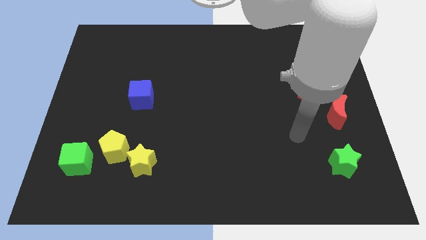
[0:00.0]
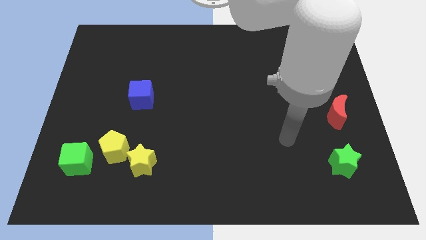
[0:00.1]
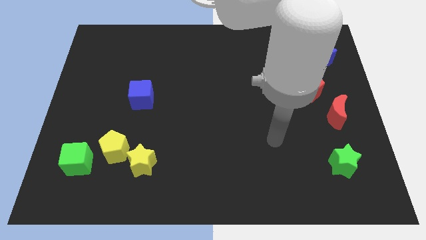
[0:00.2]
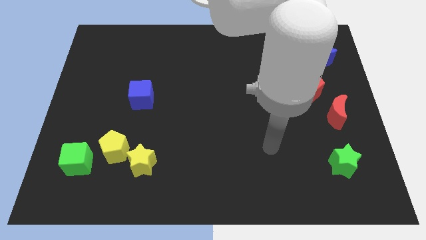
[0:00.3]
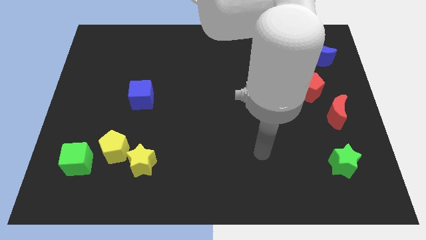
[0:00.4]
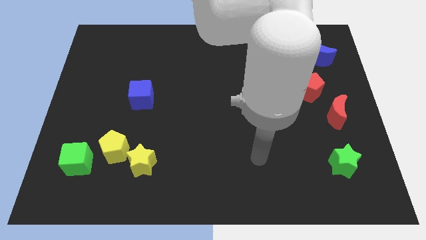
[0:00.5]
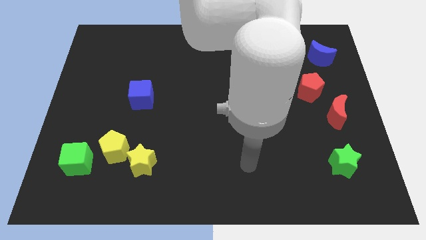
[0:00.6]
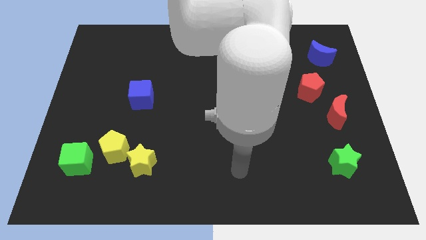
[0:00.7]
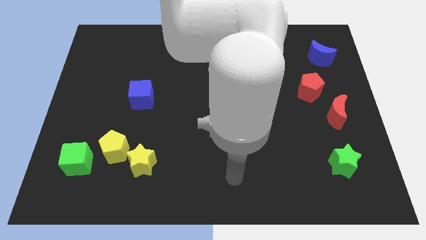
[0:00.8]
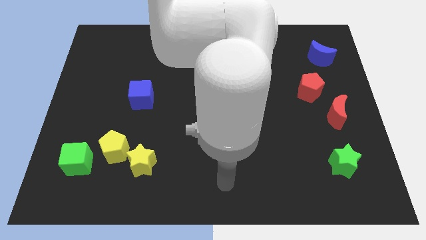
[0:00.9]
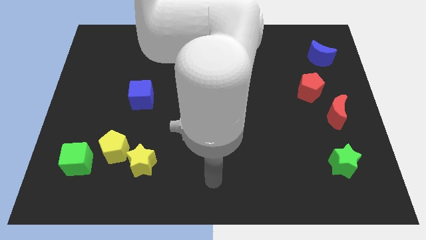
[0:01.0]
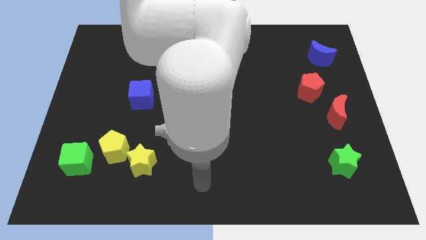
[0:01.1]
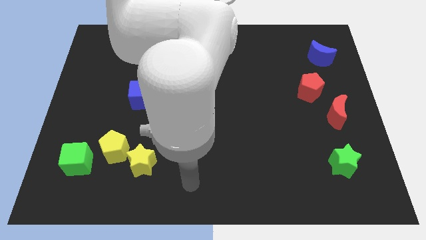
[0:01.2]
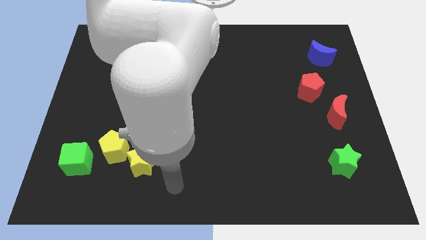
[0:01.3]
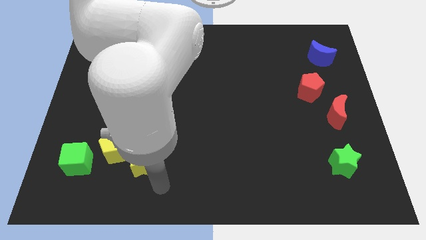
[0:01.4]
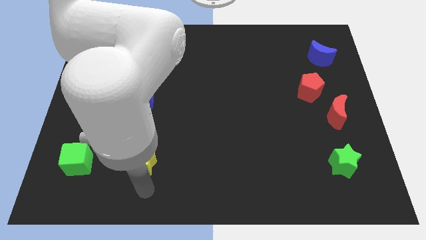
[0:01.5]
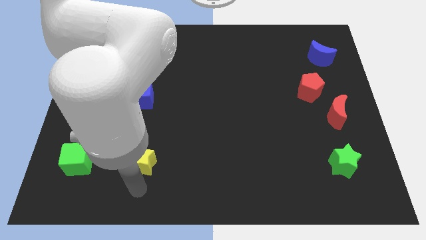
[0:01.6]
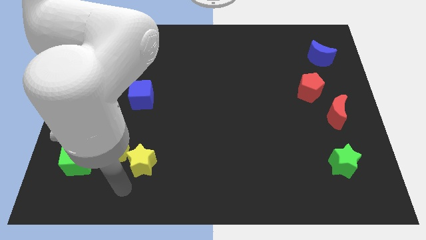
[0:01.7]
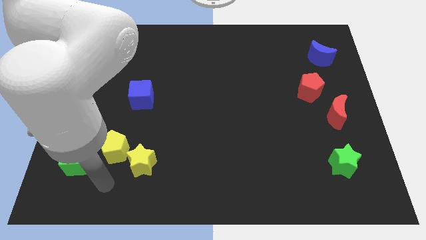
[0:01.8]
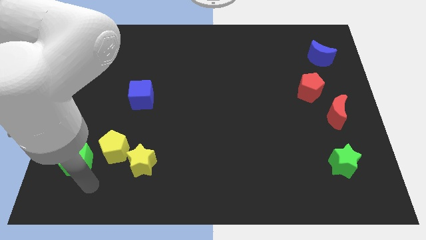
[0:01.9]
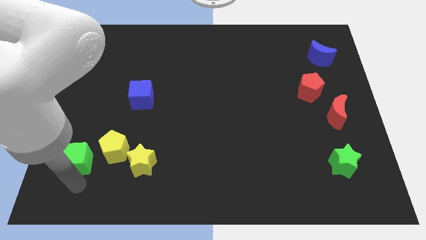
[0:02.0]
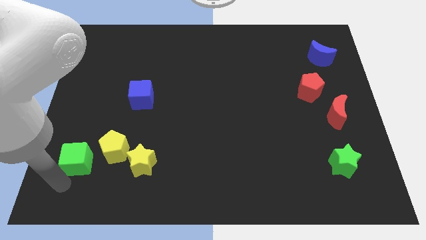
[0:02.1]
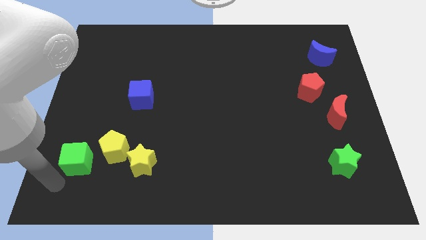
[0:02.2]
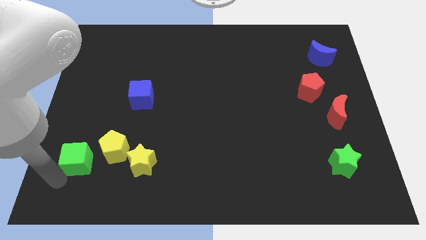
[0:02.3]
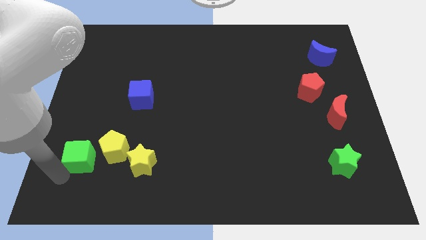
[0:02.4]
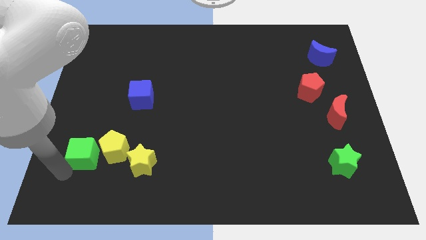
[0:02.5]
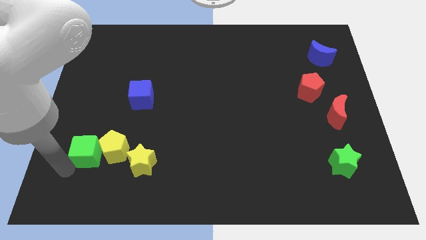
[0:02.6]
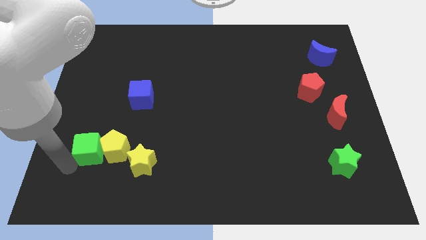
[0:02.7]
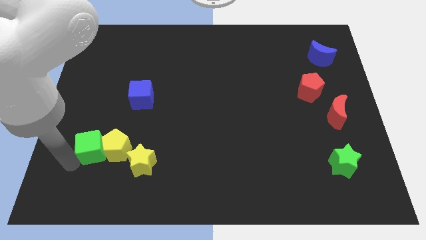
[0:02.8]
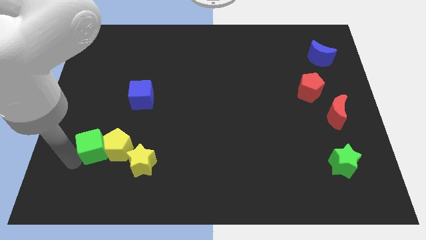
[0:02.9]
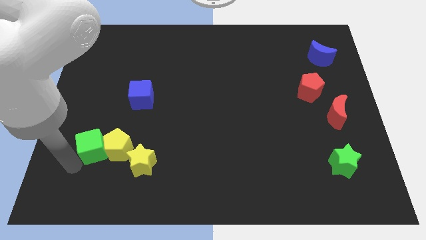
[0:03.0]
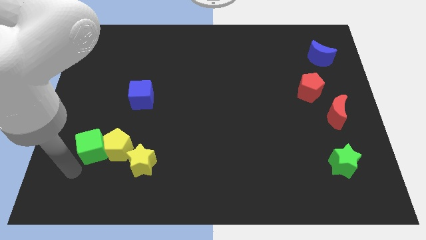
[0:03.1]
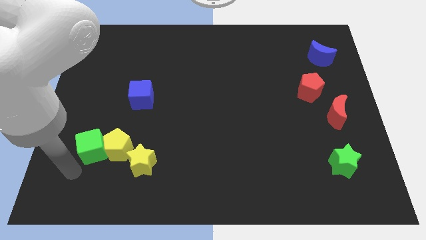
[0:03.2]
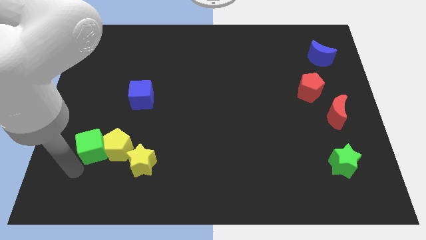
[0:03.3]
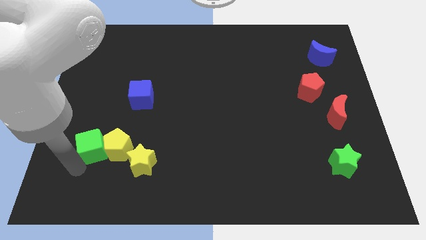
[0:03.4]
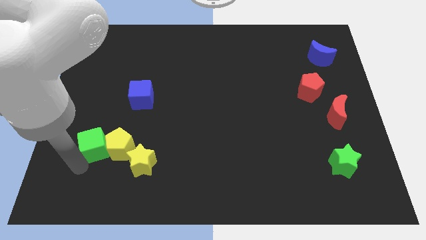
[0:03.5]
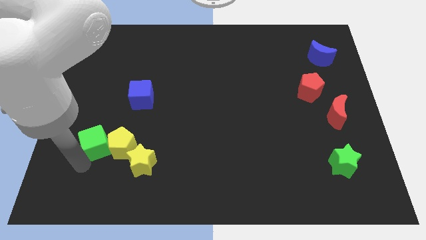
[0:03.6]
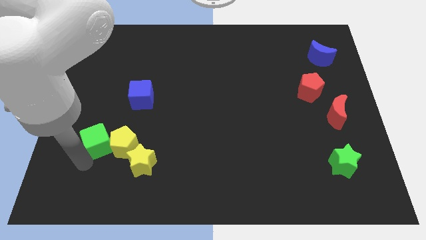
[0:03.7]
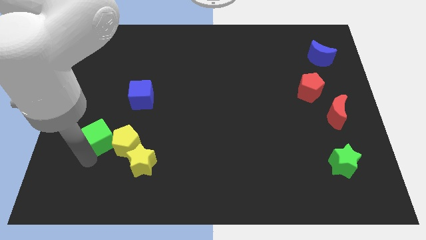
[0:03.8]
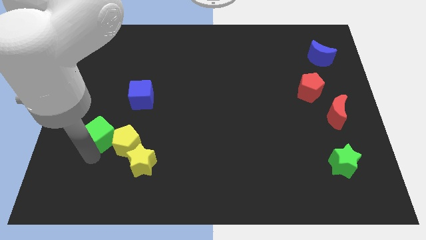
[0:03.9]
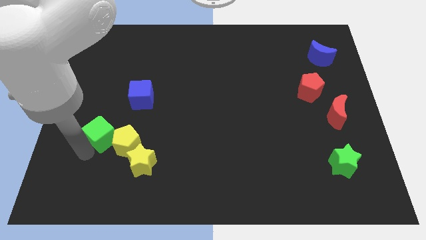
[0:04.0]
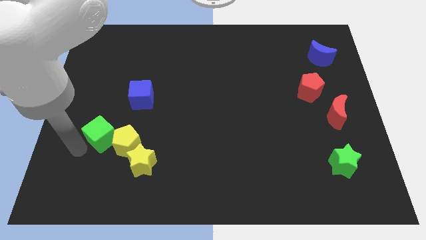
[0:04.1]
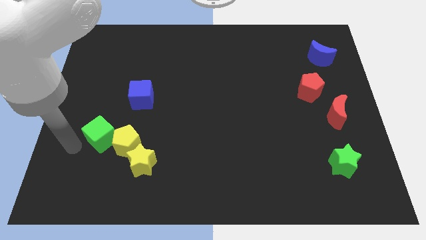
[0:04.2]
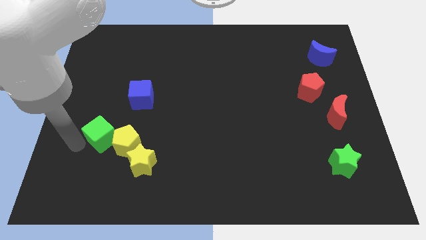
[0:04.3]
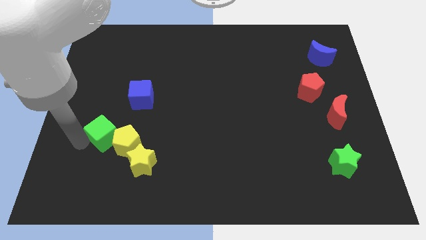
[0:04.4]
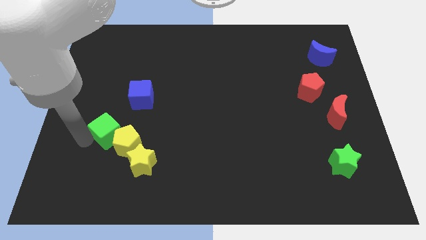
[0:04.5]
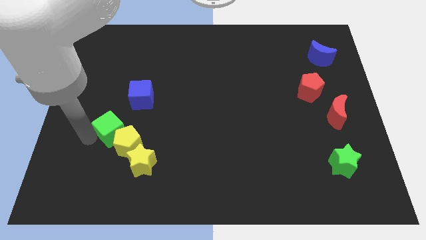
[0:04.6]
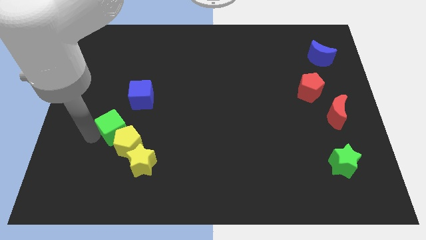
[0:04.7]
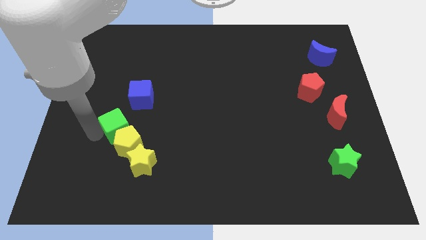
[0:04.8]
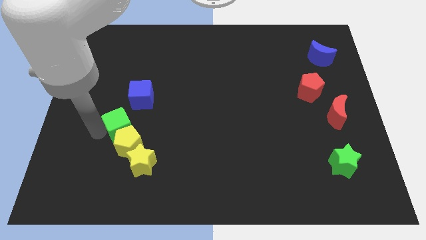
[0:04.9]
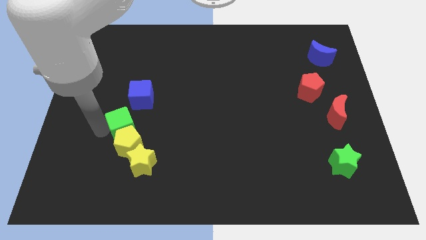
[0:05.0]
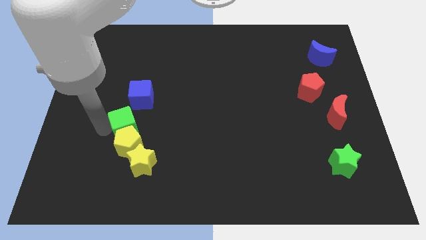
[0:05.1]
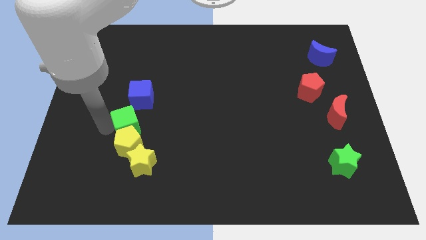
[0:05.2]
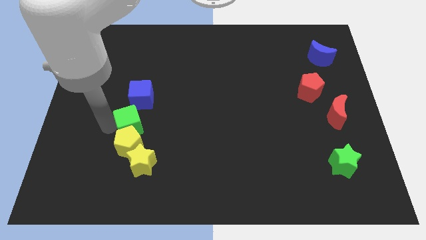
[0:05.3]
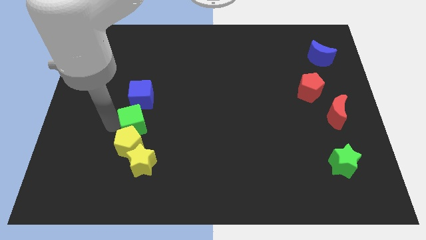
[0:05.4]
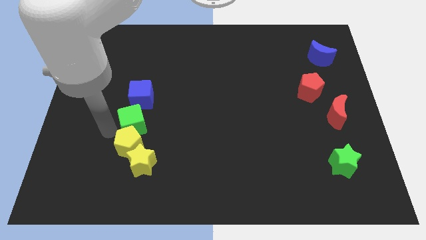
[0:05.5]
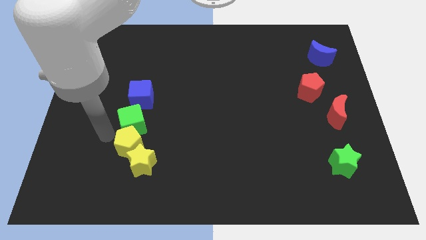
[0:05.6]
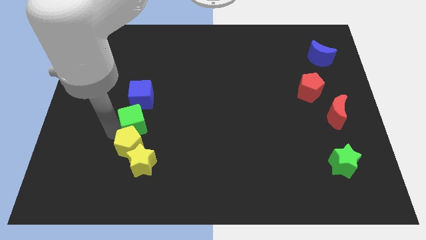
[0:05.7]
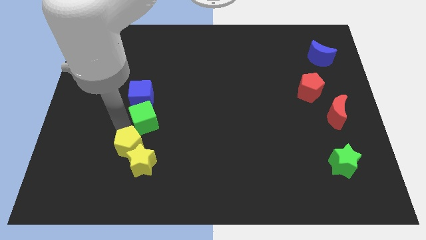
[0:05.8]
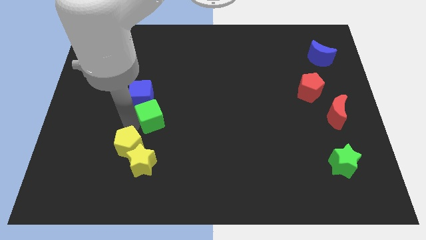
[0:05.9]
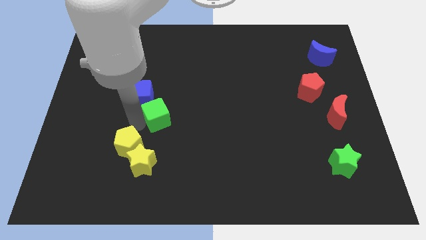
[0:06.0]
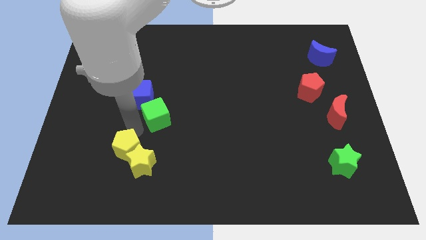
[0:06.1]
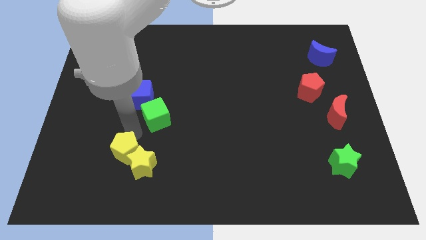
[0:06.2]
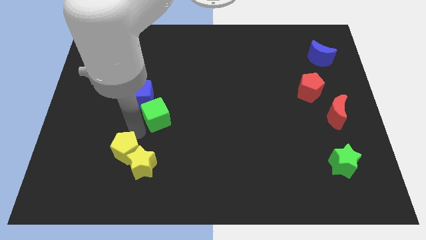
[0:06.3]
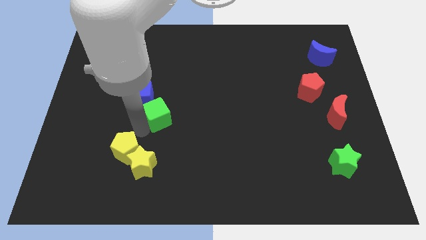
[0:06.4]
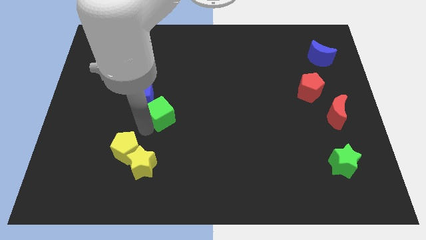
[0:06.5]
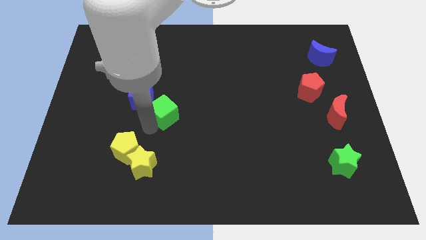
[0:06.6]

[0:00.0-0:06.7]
push the green cube to the right of the blue cube

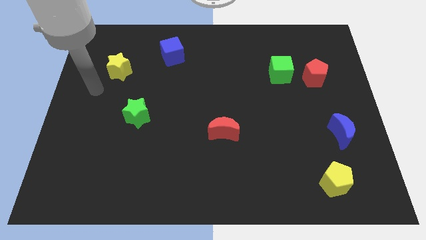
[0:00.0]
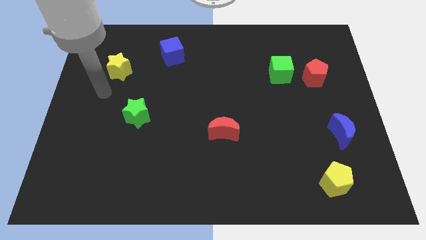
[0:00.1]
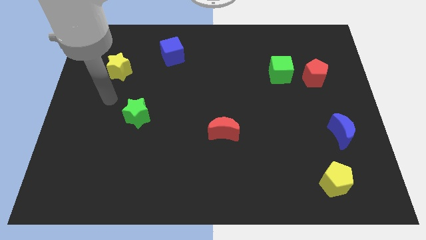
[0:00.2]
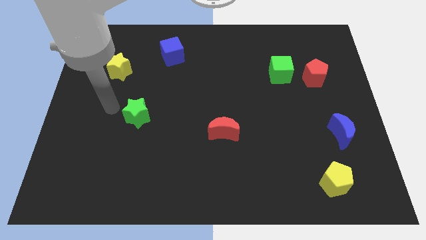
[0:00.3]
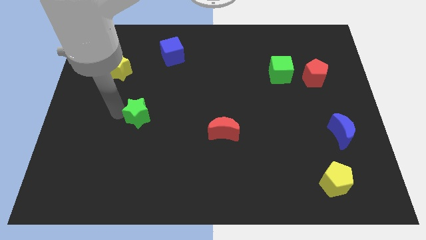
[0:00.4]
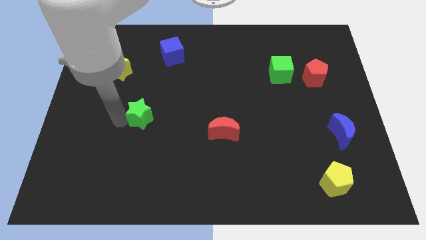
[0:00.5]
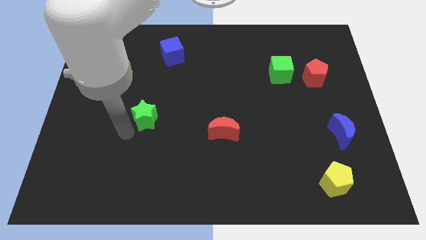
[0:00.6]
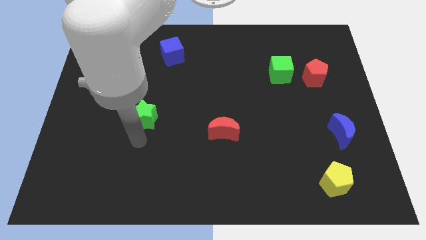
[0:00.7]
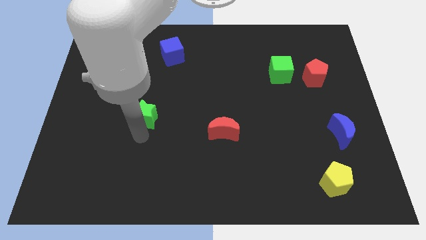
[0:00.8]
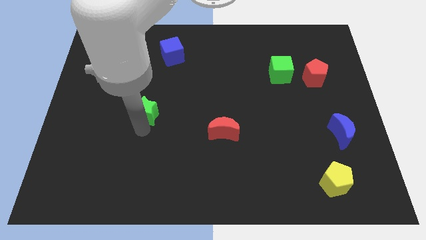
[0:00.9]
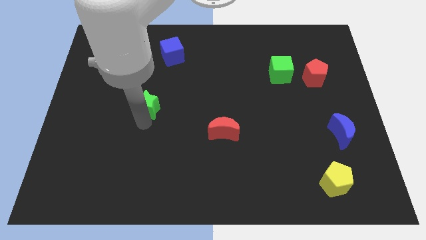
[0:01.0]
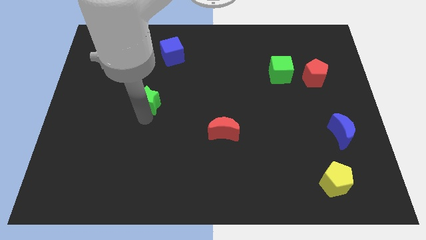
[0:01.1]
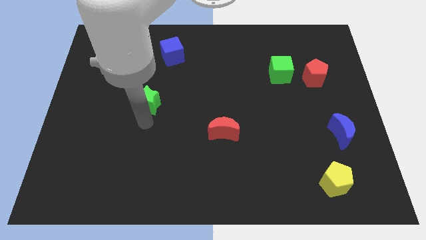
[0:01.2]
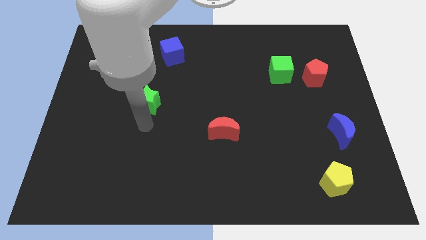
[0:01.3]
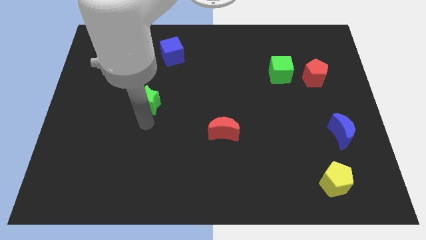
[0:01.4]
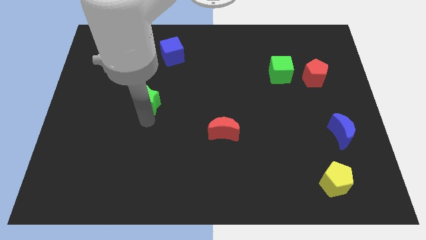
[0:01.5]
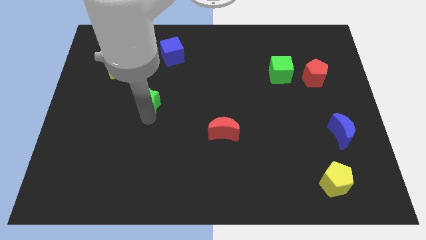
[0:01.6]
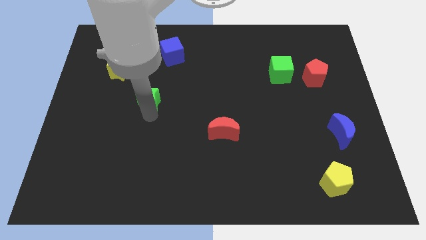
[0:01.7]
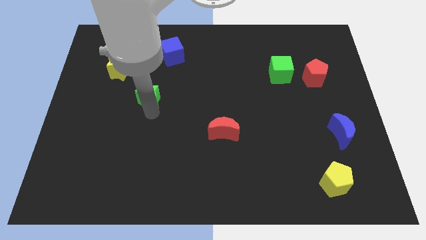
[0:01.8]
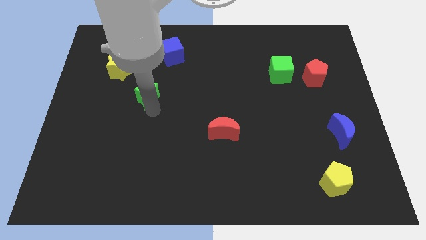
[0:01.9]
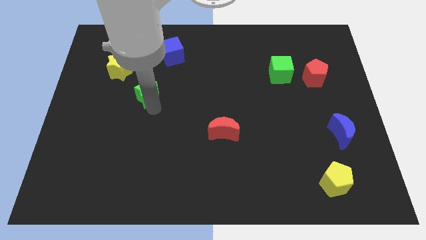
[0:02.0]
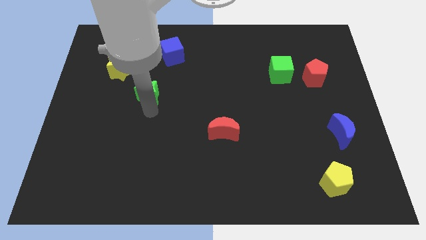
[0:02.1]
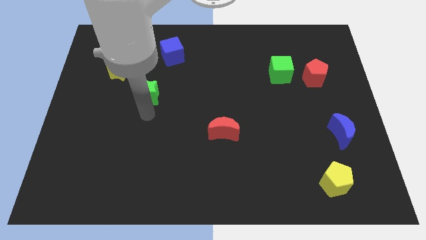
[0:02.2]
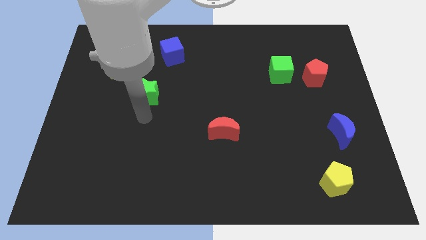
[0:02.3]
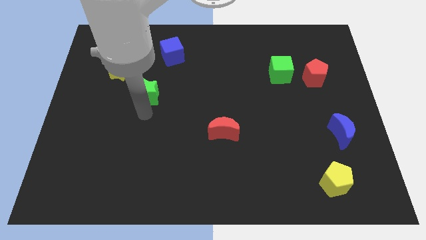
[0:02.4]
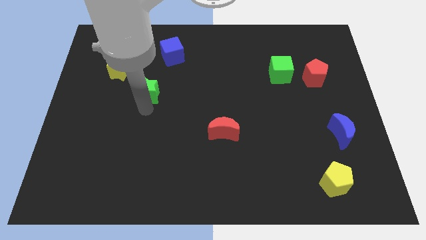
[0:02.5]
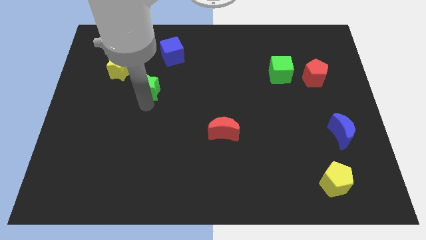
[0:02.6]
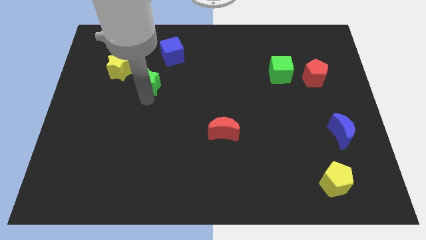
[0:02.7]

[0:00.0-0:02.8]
slide the green star diagonally down and to the left of the blue cube
